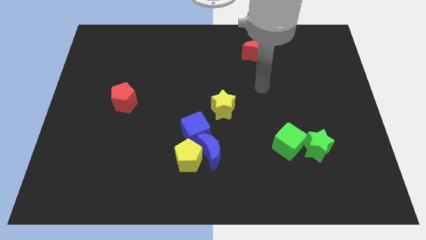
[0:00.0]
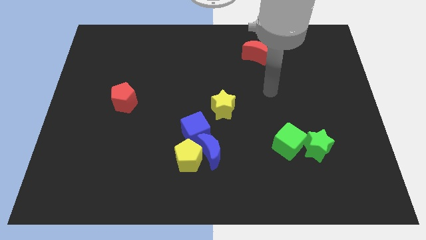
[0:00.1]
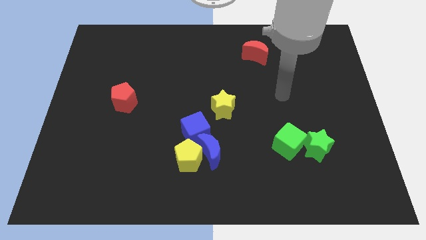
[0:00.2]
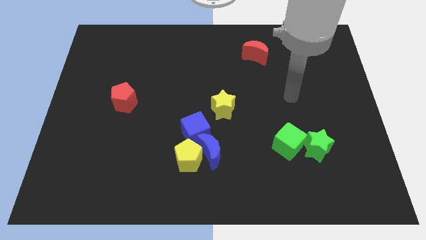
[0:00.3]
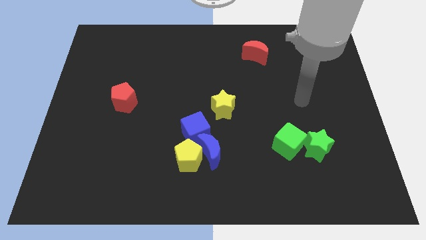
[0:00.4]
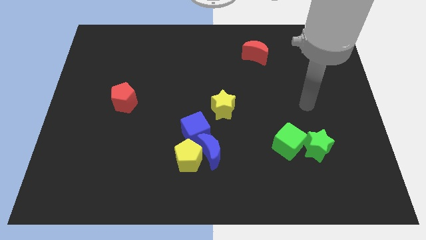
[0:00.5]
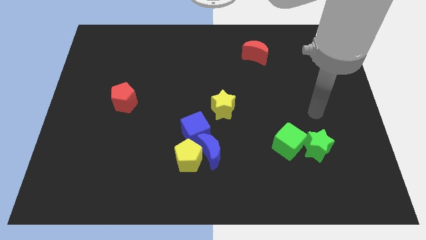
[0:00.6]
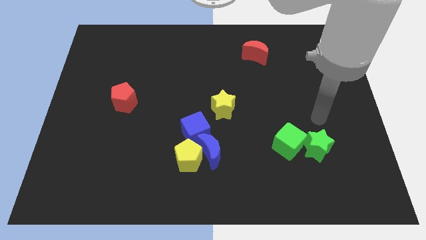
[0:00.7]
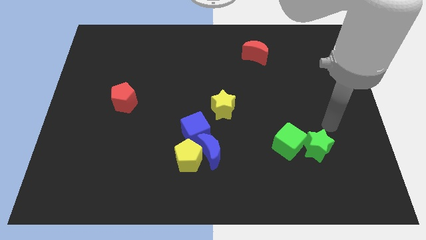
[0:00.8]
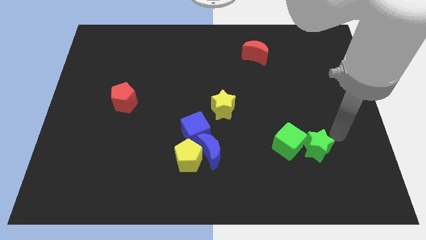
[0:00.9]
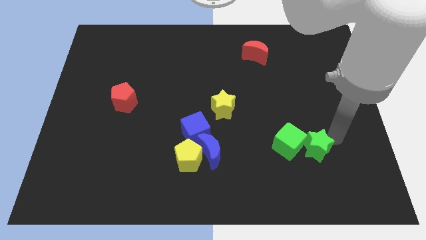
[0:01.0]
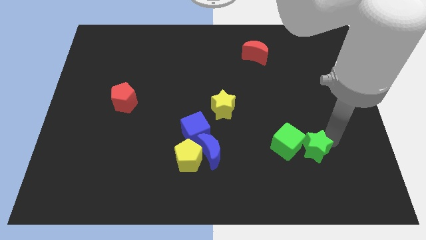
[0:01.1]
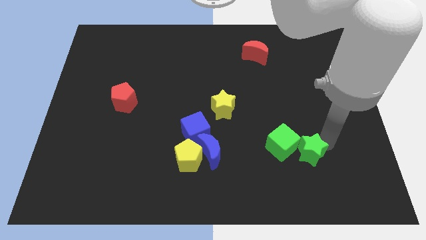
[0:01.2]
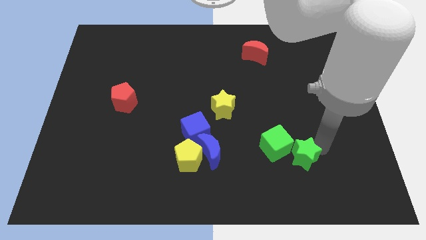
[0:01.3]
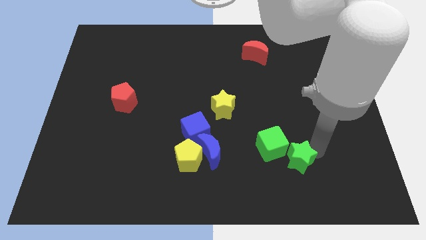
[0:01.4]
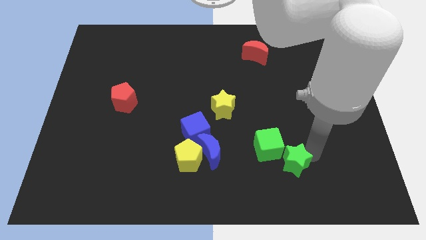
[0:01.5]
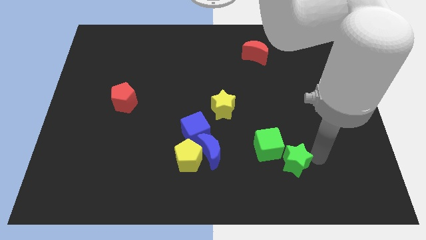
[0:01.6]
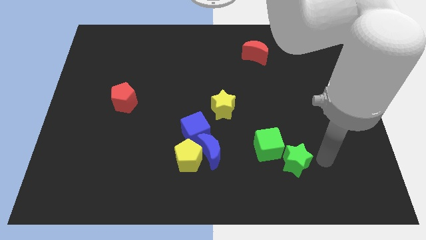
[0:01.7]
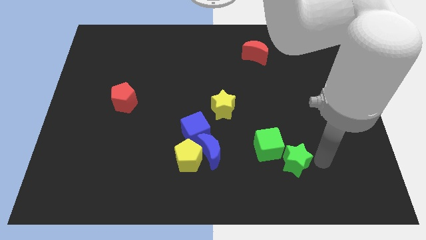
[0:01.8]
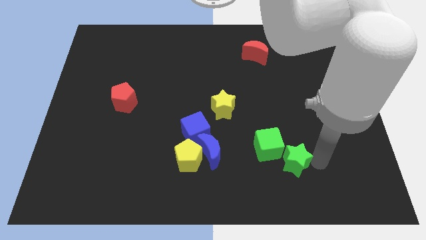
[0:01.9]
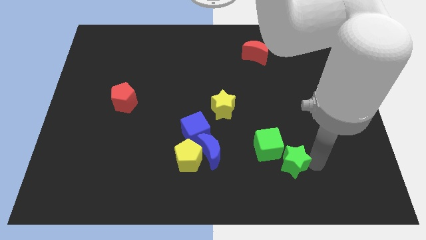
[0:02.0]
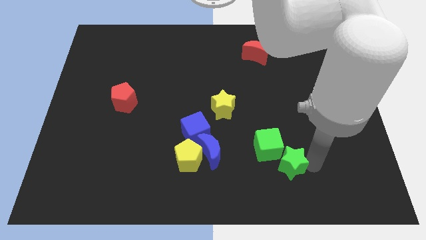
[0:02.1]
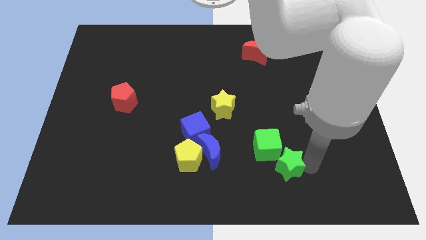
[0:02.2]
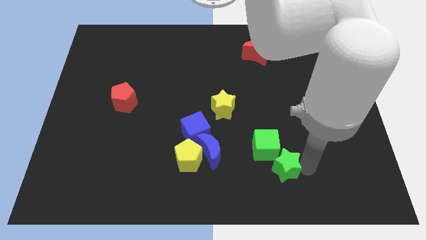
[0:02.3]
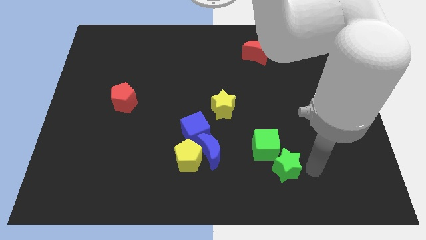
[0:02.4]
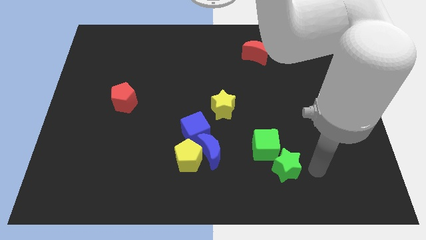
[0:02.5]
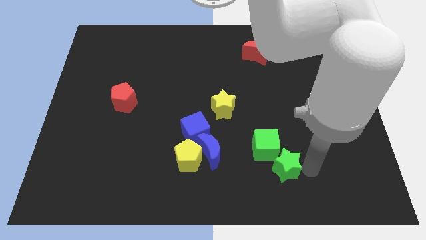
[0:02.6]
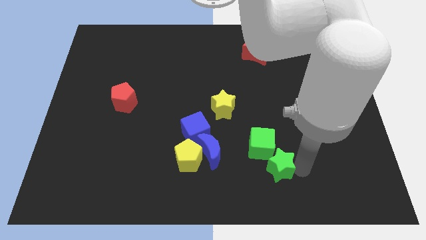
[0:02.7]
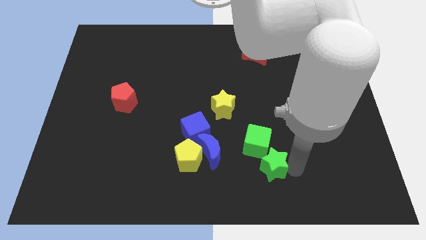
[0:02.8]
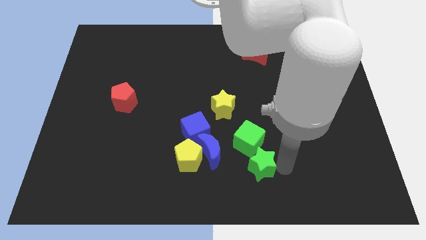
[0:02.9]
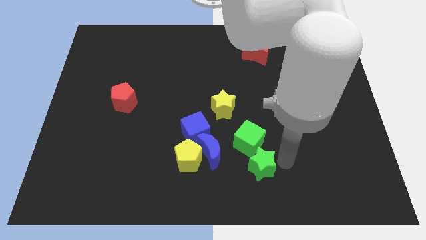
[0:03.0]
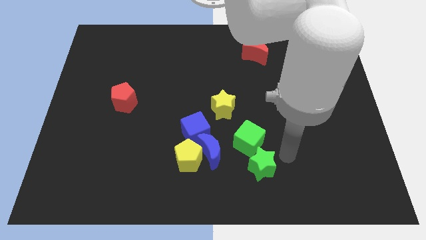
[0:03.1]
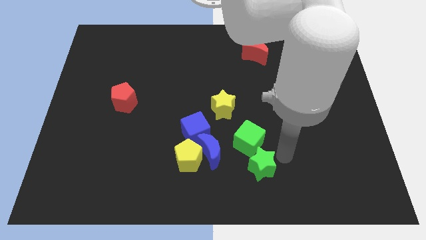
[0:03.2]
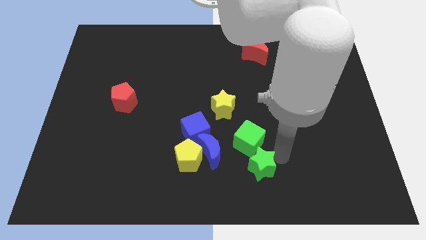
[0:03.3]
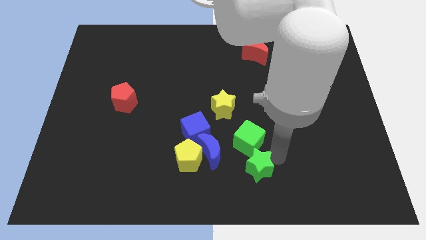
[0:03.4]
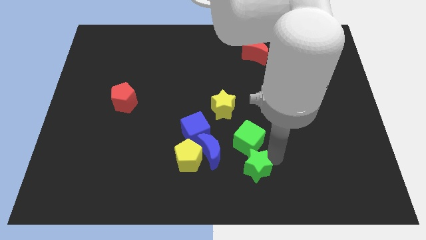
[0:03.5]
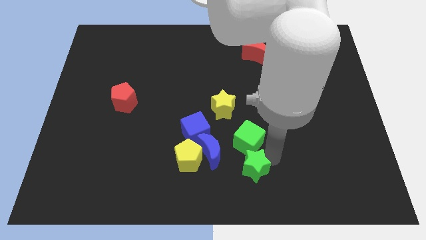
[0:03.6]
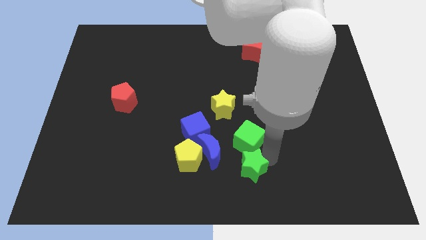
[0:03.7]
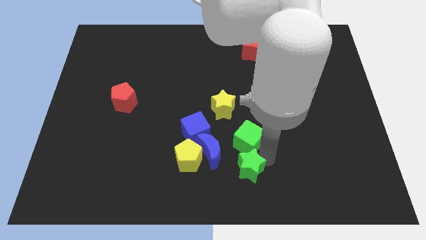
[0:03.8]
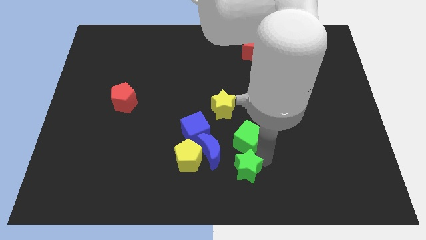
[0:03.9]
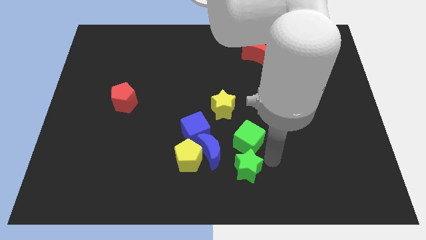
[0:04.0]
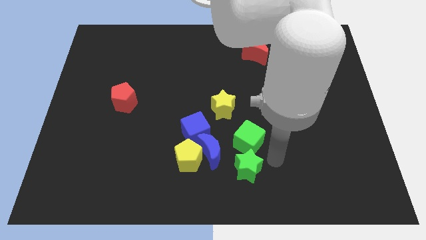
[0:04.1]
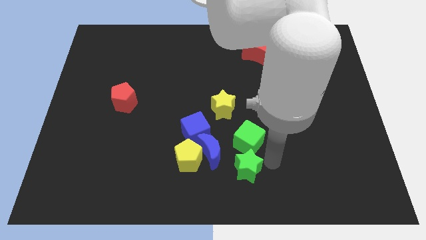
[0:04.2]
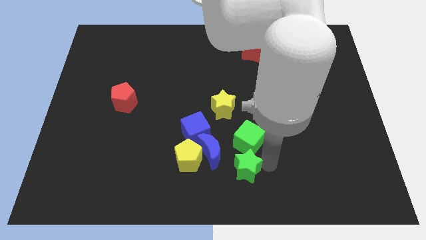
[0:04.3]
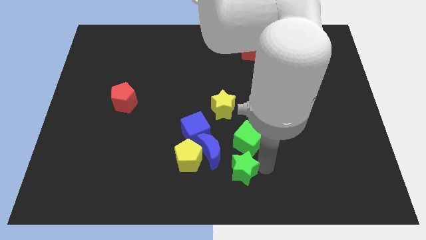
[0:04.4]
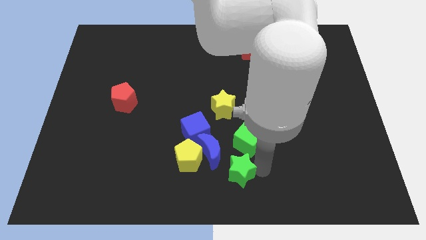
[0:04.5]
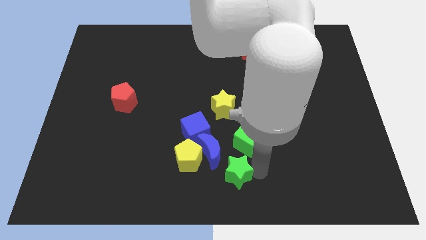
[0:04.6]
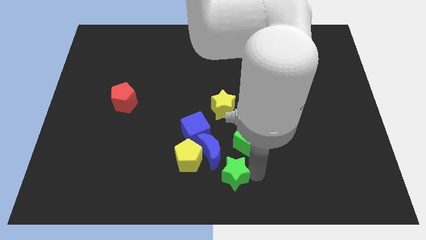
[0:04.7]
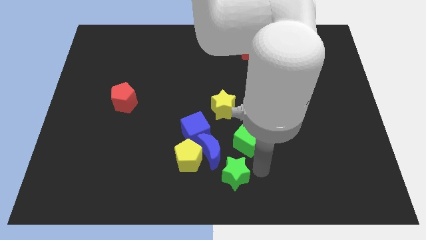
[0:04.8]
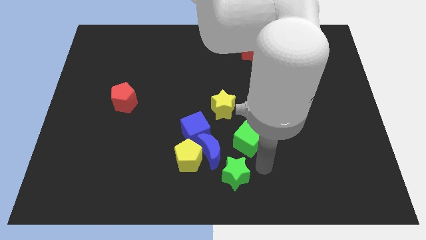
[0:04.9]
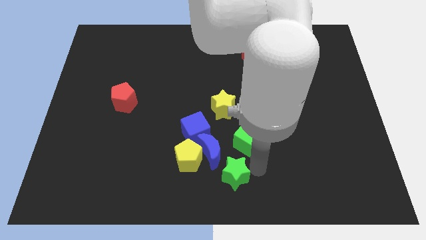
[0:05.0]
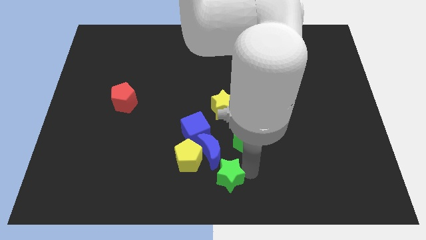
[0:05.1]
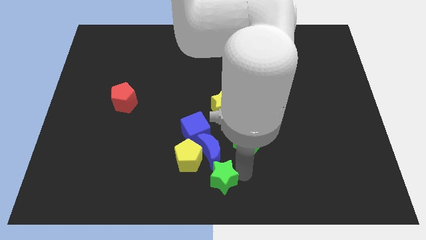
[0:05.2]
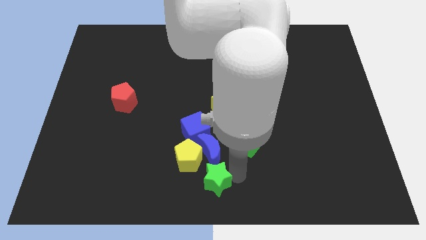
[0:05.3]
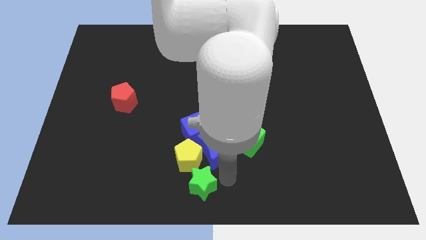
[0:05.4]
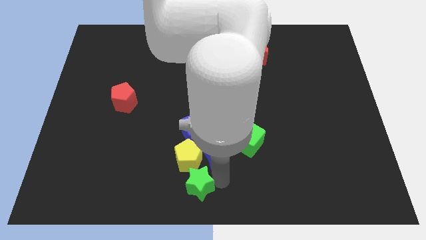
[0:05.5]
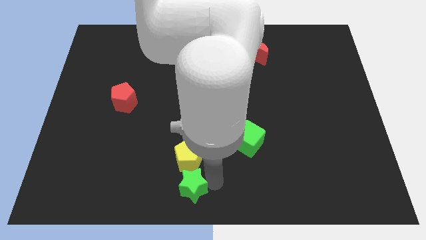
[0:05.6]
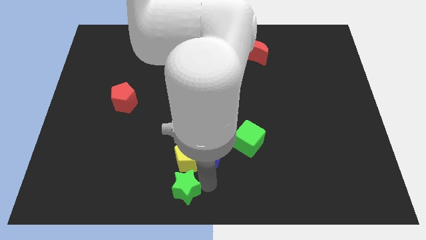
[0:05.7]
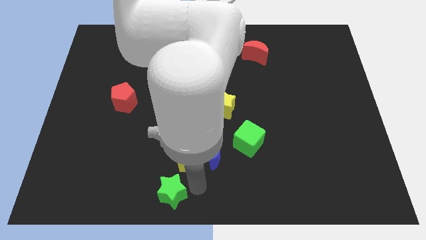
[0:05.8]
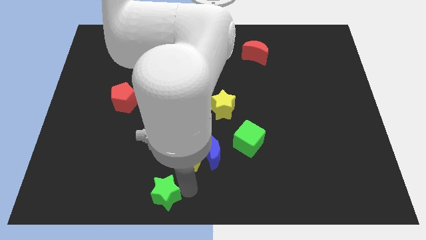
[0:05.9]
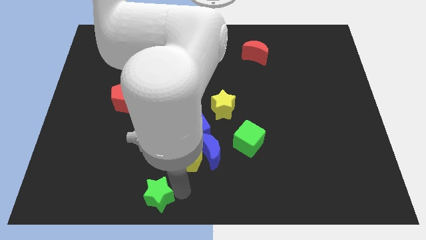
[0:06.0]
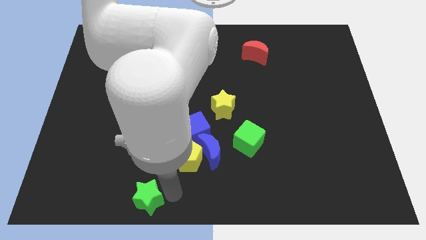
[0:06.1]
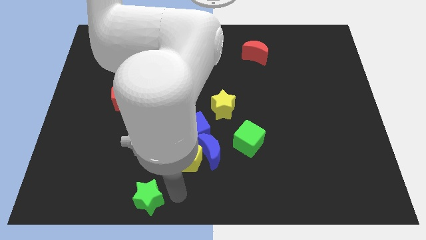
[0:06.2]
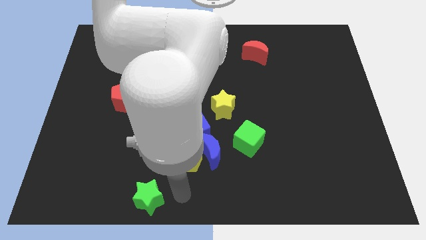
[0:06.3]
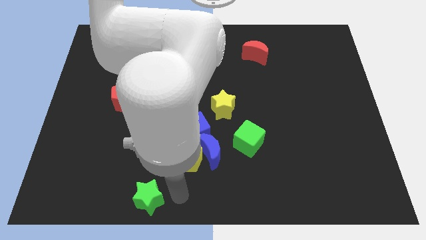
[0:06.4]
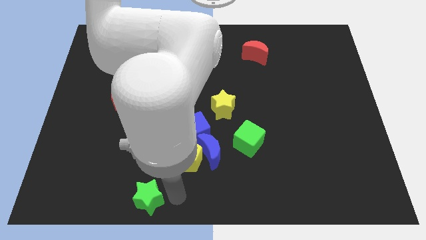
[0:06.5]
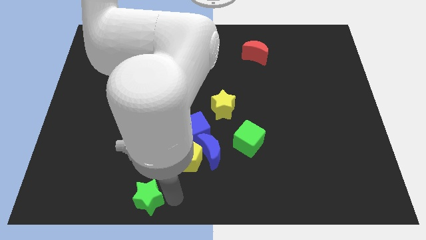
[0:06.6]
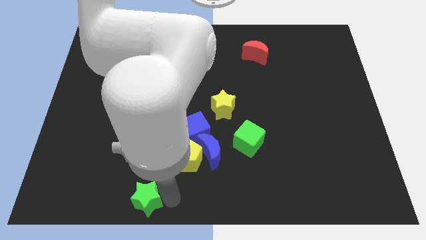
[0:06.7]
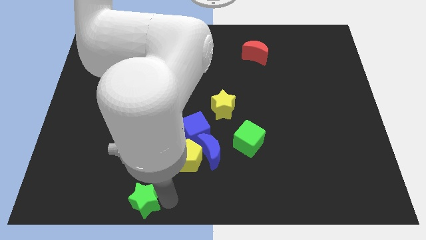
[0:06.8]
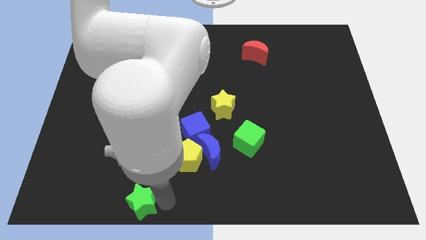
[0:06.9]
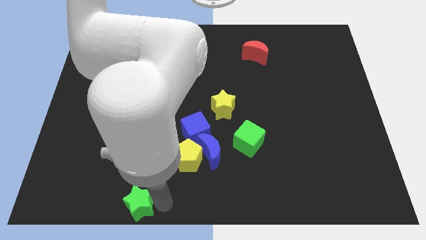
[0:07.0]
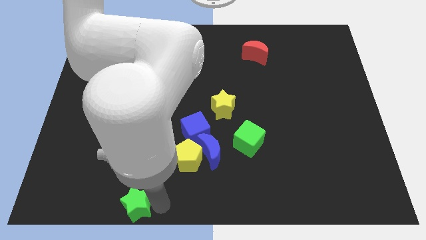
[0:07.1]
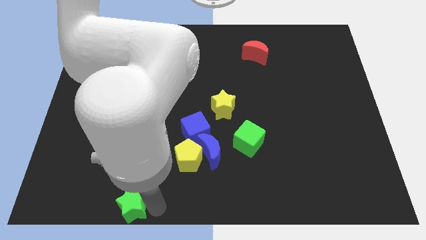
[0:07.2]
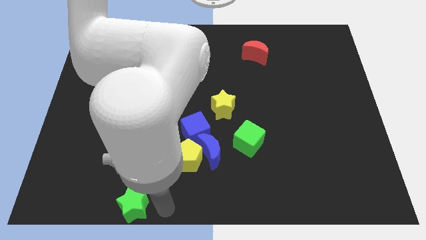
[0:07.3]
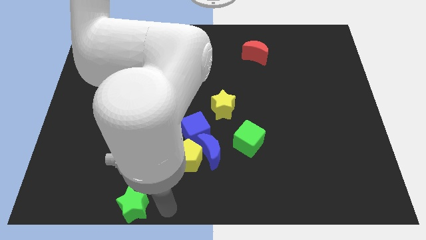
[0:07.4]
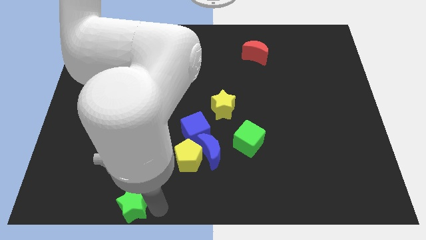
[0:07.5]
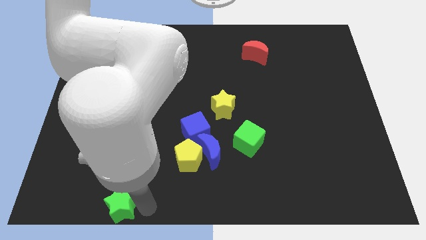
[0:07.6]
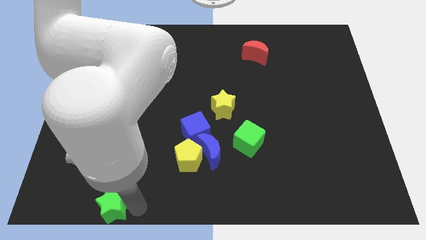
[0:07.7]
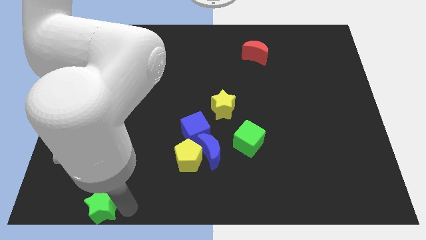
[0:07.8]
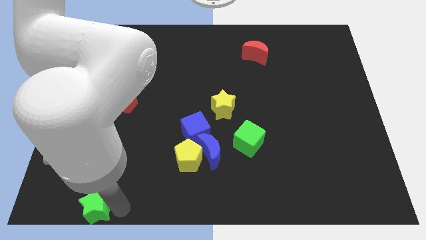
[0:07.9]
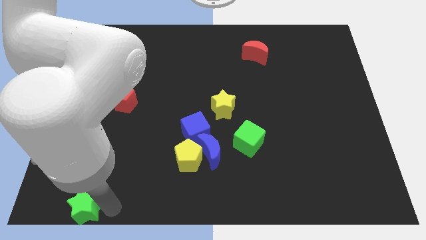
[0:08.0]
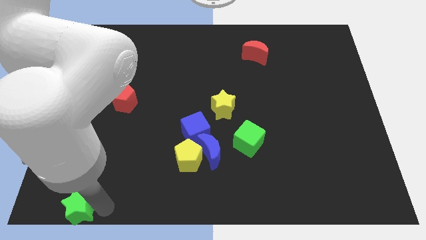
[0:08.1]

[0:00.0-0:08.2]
push the green star to the bottom left
